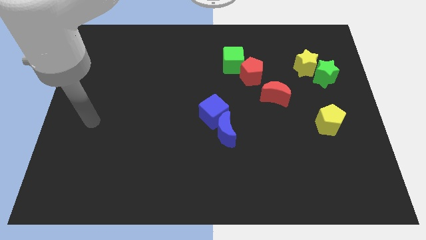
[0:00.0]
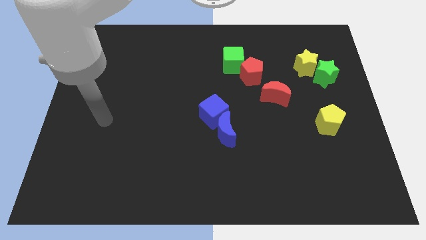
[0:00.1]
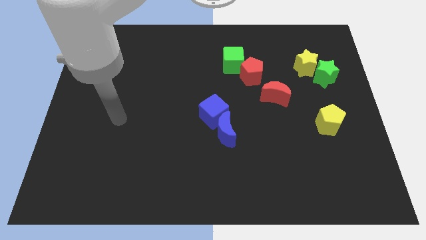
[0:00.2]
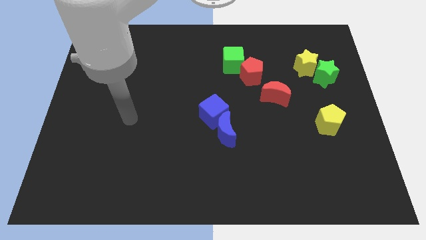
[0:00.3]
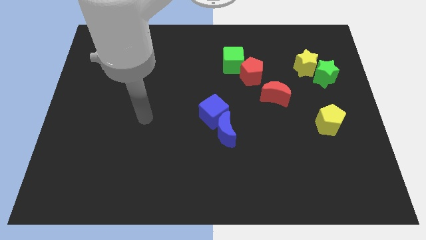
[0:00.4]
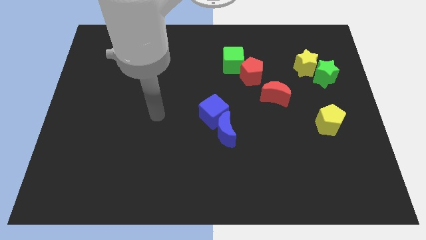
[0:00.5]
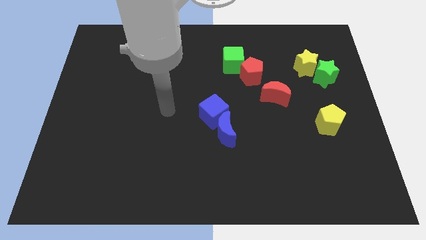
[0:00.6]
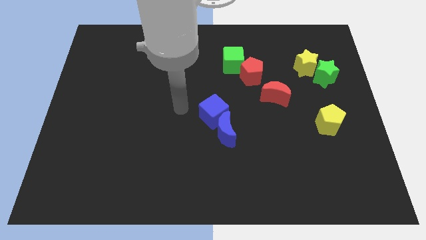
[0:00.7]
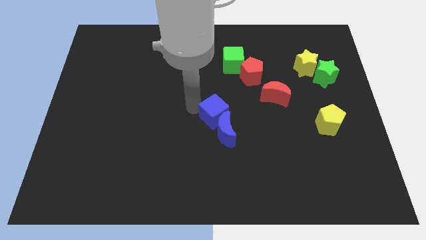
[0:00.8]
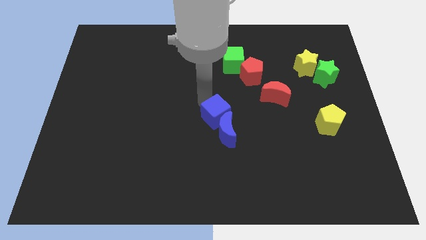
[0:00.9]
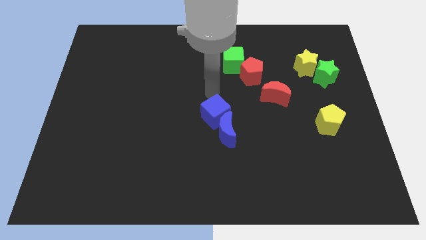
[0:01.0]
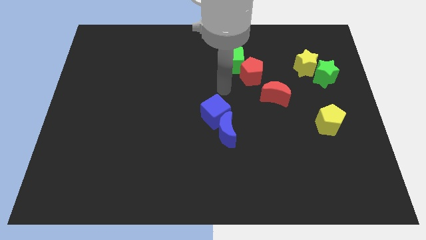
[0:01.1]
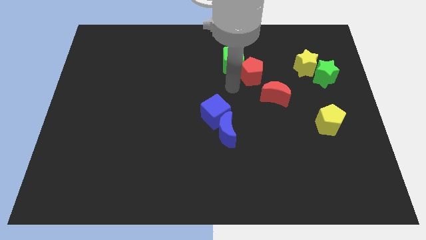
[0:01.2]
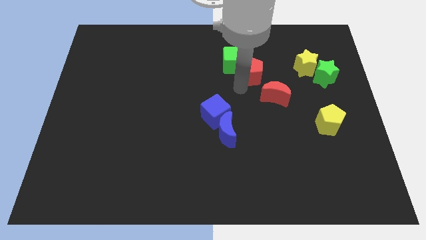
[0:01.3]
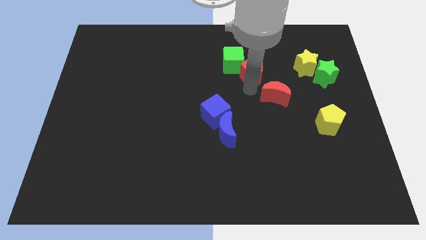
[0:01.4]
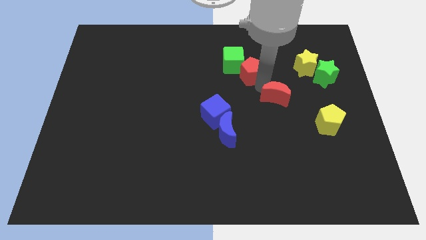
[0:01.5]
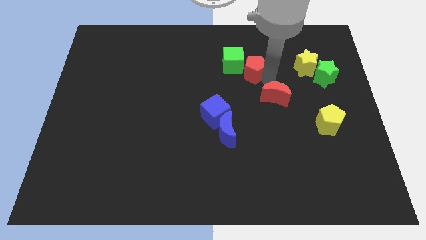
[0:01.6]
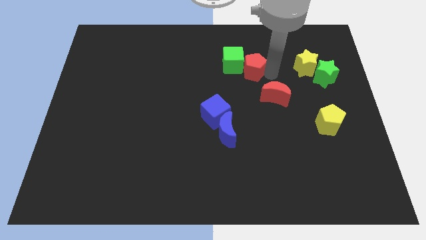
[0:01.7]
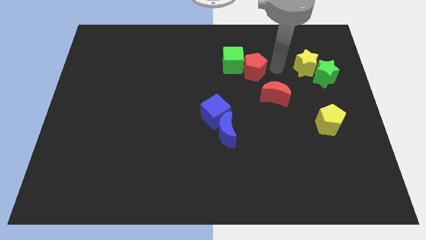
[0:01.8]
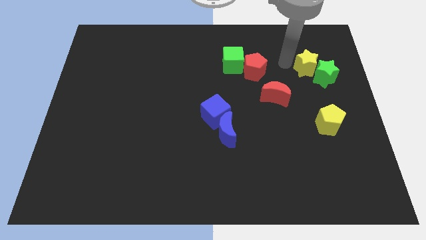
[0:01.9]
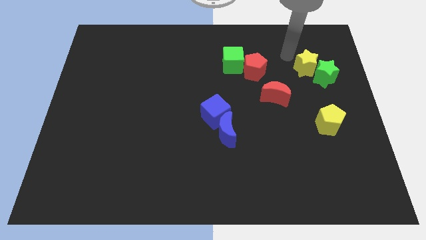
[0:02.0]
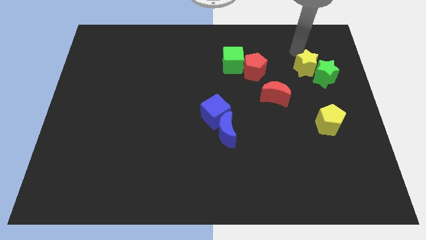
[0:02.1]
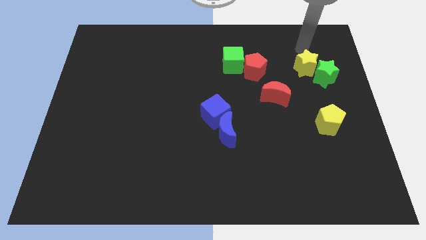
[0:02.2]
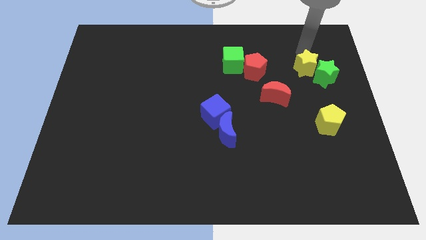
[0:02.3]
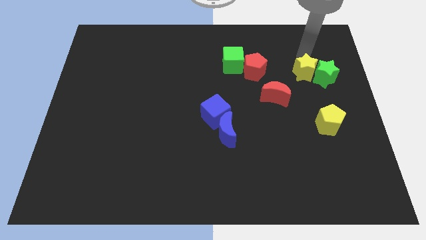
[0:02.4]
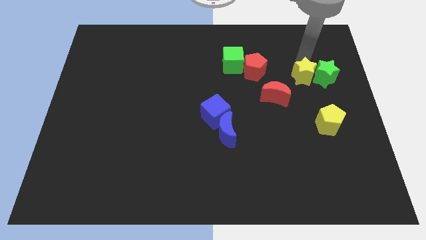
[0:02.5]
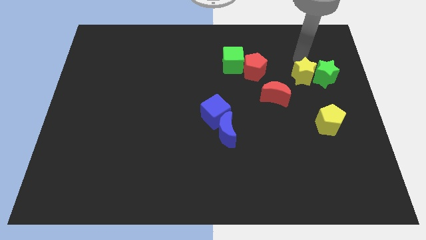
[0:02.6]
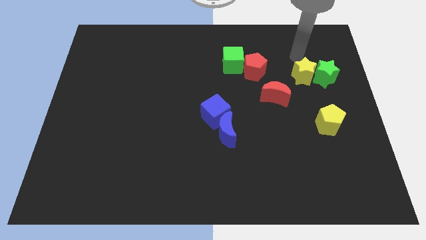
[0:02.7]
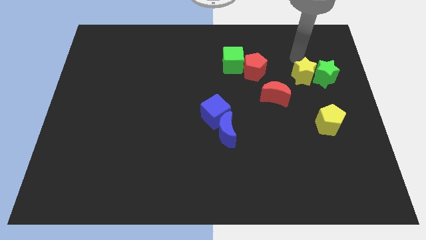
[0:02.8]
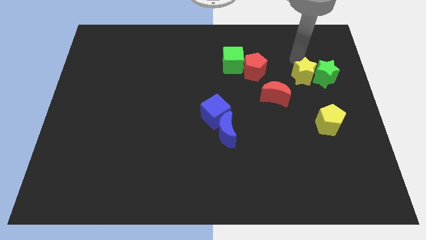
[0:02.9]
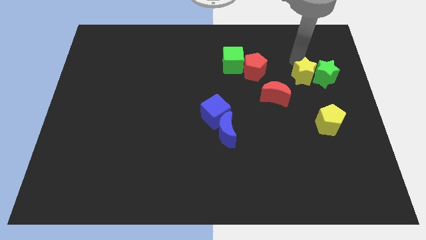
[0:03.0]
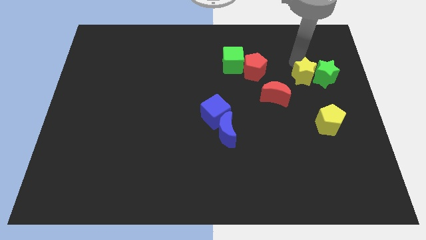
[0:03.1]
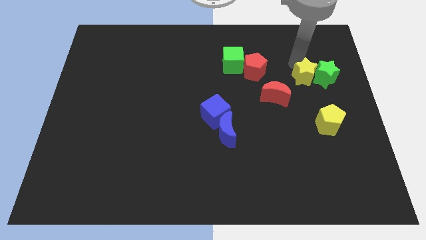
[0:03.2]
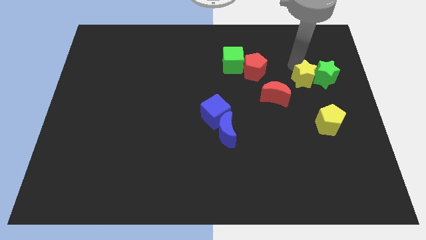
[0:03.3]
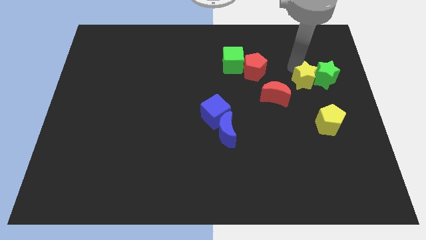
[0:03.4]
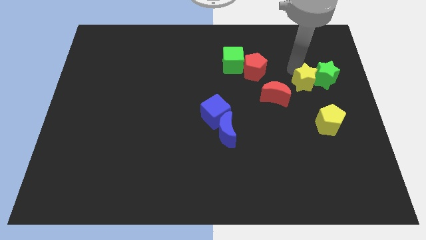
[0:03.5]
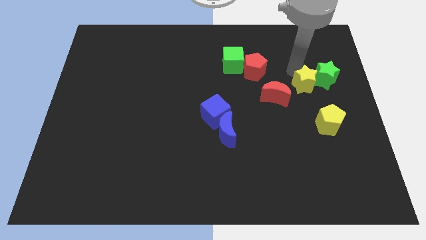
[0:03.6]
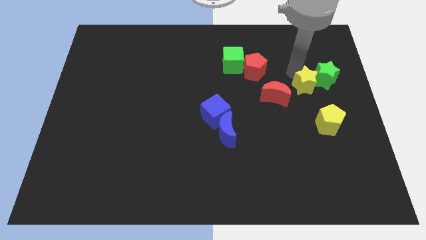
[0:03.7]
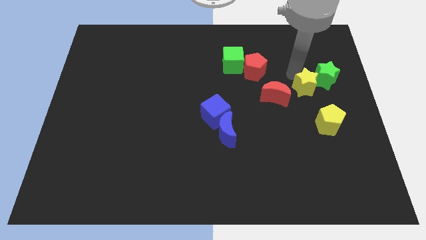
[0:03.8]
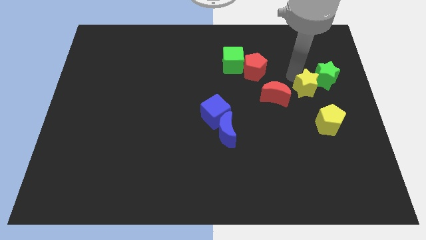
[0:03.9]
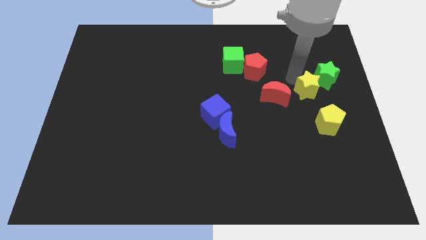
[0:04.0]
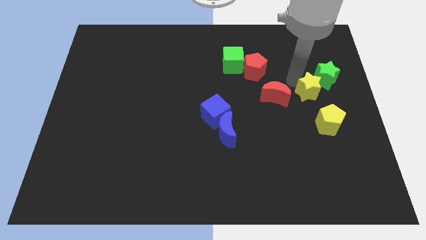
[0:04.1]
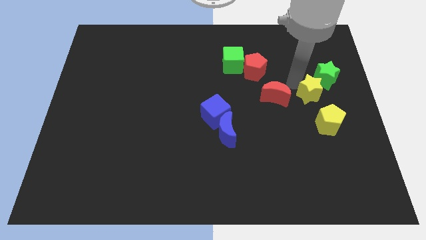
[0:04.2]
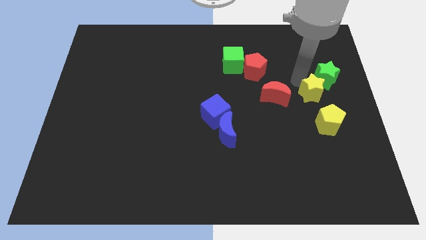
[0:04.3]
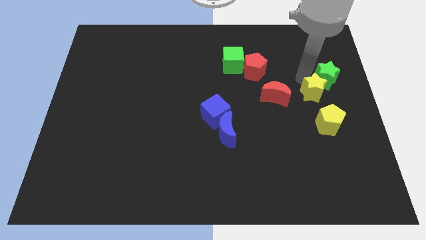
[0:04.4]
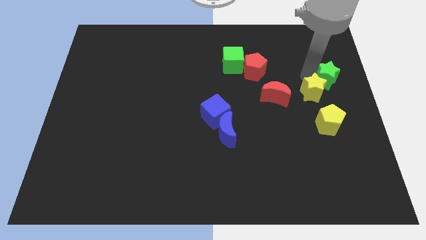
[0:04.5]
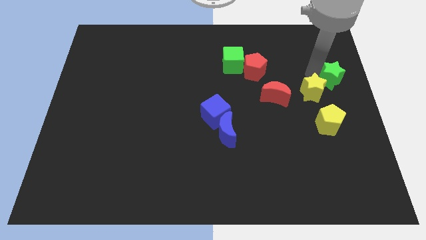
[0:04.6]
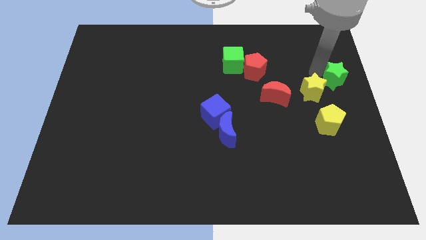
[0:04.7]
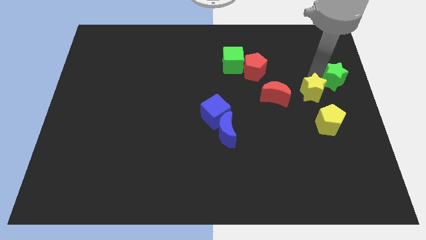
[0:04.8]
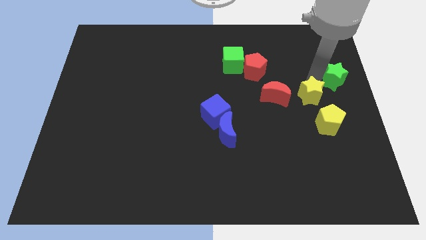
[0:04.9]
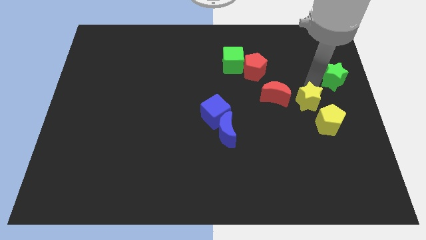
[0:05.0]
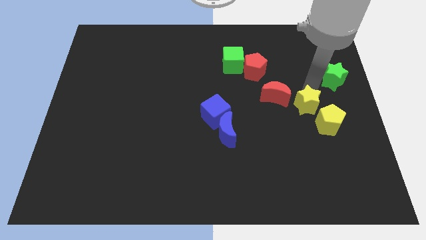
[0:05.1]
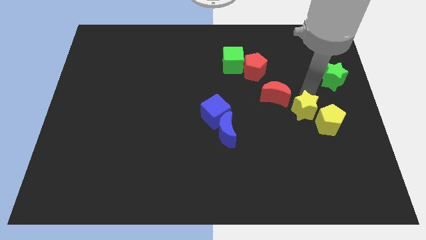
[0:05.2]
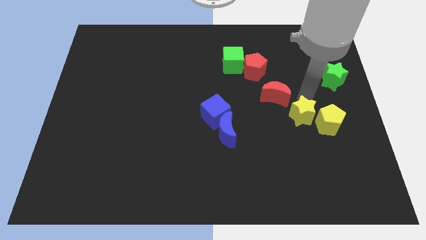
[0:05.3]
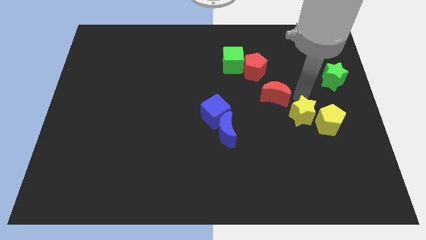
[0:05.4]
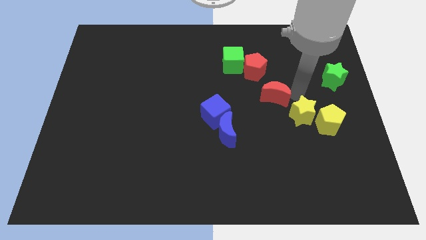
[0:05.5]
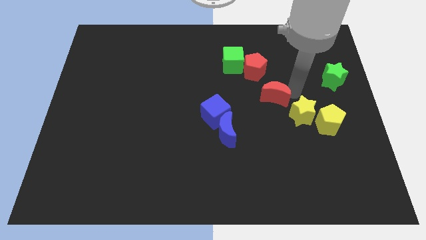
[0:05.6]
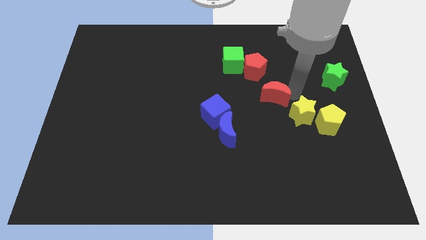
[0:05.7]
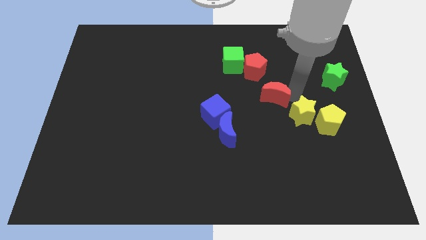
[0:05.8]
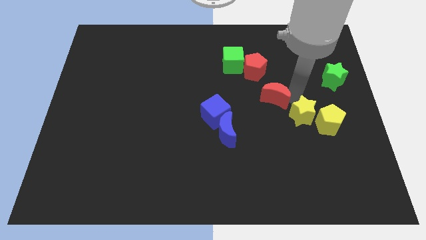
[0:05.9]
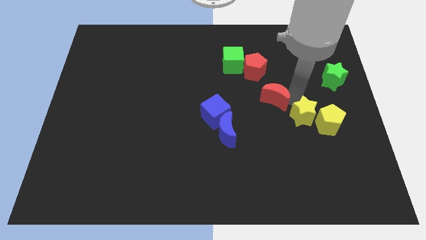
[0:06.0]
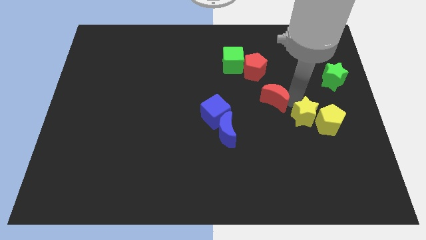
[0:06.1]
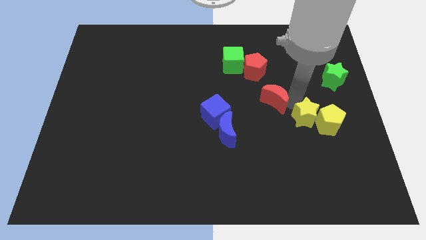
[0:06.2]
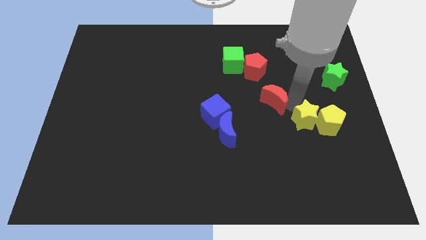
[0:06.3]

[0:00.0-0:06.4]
move the yellow star to the bottom left side of the yellow pentagon
